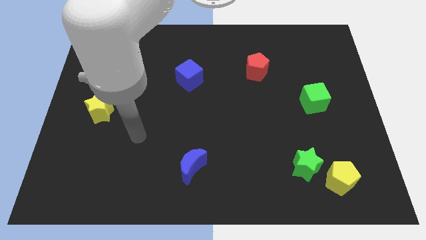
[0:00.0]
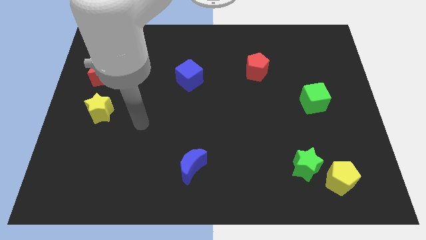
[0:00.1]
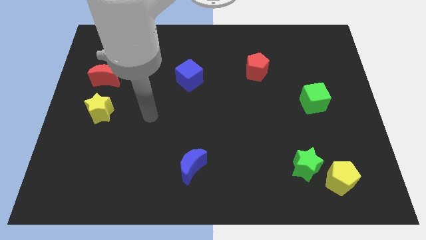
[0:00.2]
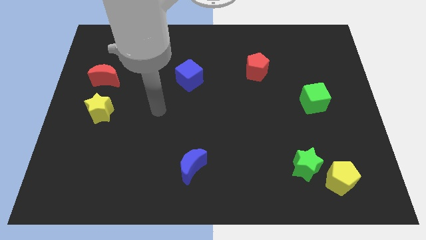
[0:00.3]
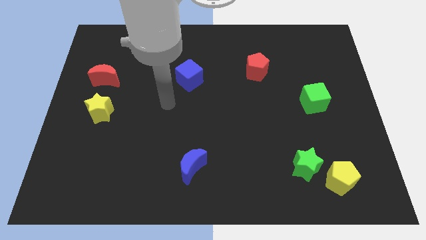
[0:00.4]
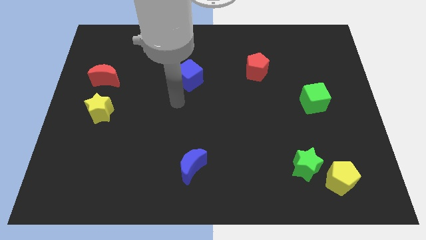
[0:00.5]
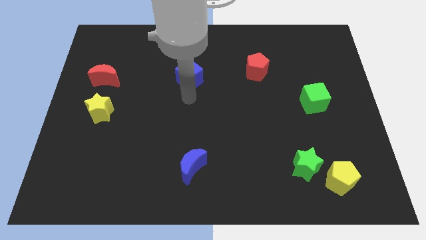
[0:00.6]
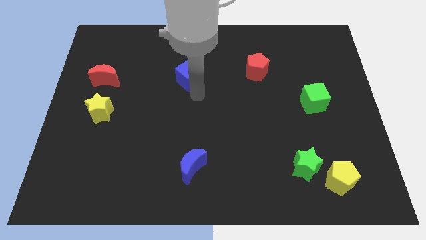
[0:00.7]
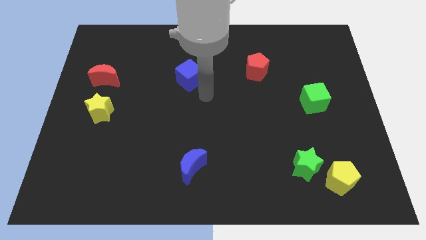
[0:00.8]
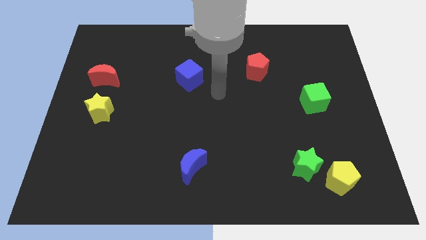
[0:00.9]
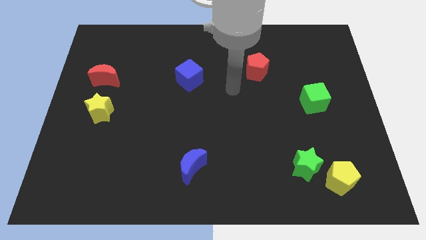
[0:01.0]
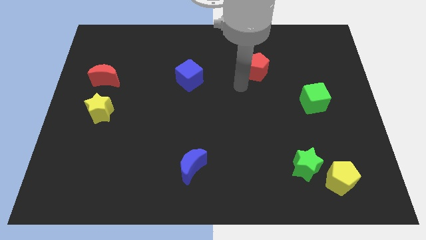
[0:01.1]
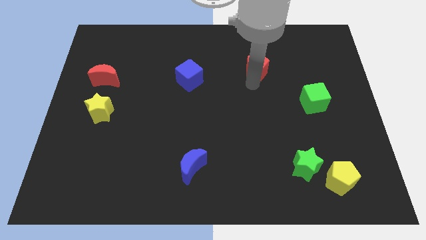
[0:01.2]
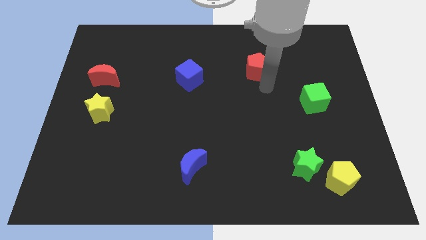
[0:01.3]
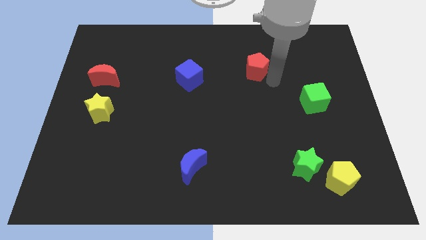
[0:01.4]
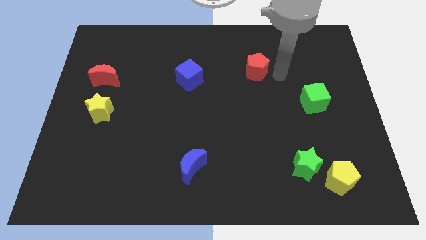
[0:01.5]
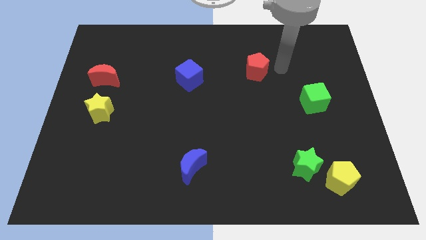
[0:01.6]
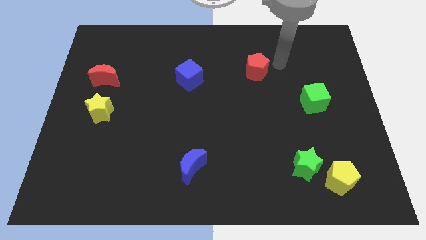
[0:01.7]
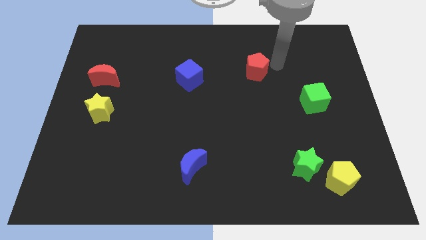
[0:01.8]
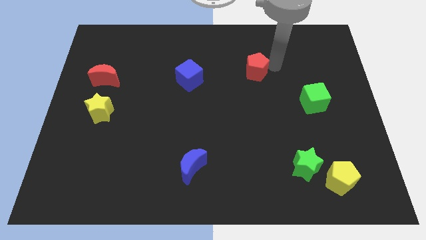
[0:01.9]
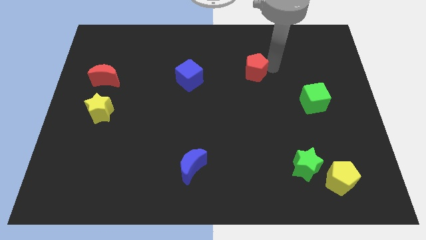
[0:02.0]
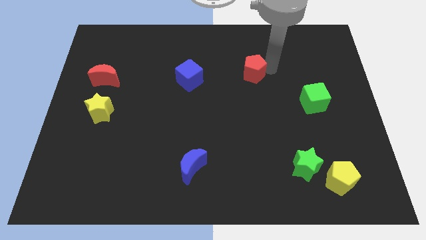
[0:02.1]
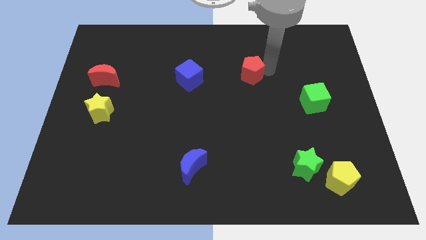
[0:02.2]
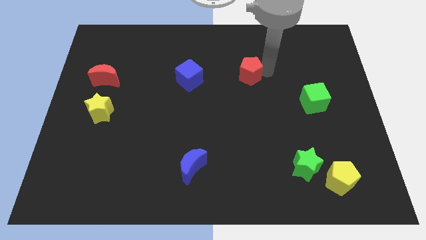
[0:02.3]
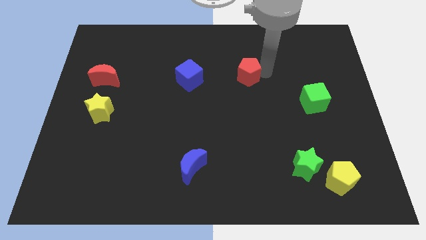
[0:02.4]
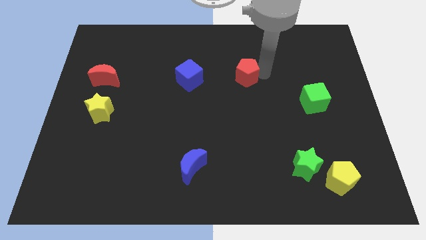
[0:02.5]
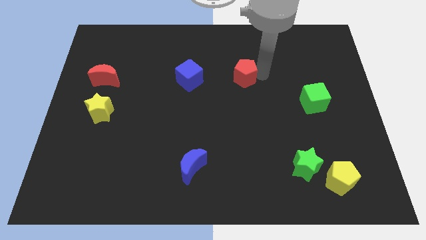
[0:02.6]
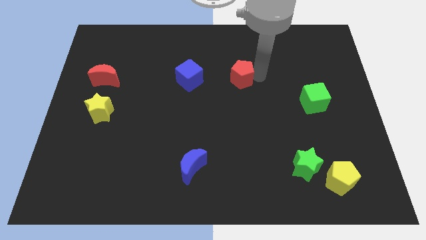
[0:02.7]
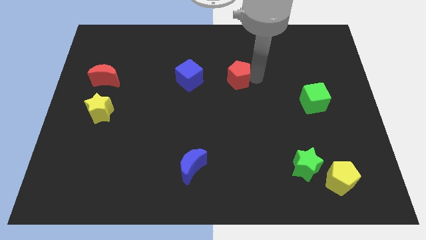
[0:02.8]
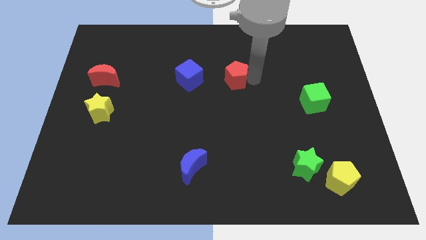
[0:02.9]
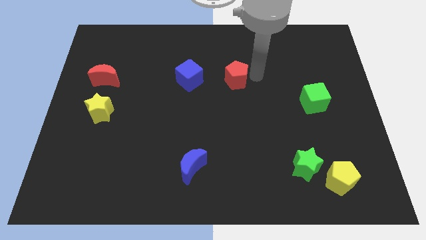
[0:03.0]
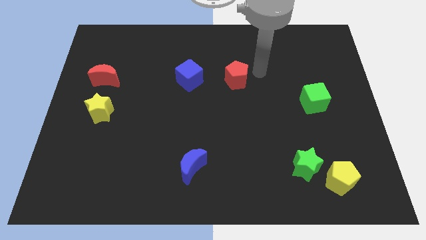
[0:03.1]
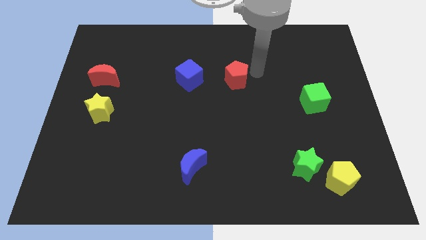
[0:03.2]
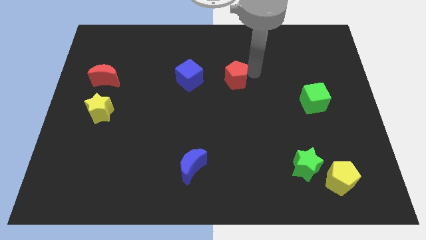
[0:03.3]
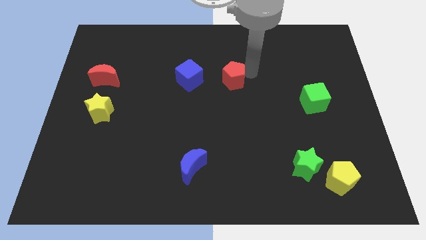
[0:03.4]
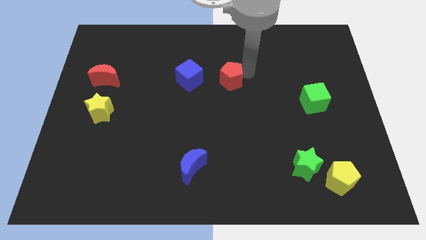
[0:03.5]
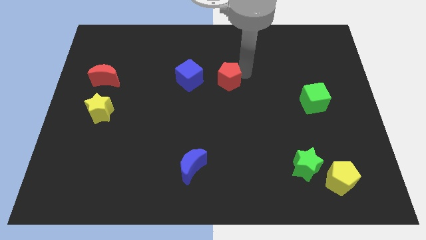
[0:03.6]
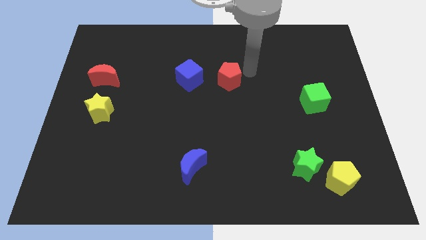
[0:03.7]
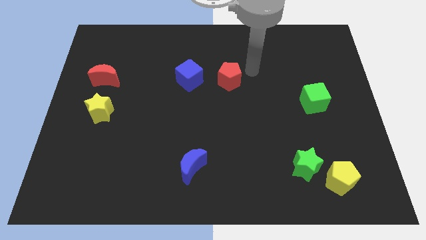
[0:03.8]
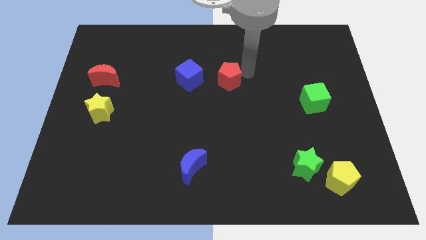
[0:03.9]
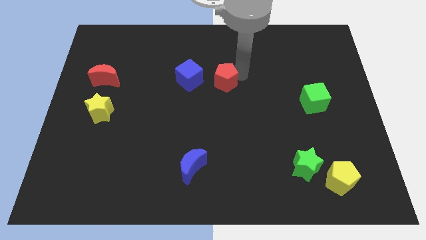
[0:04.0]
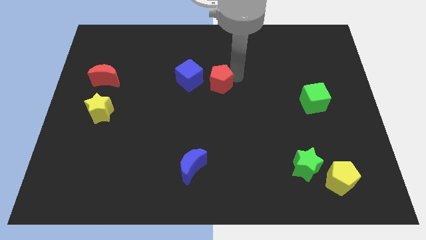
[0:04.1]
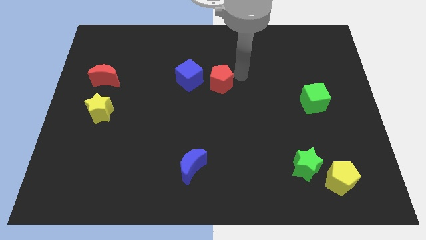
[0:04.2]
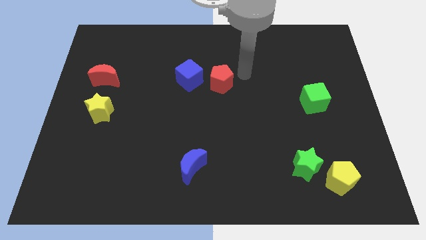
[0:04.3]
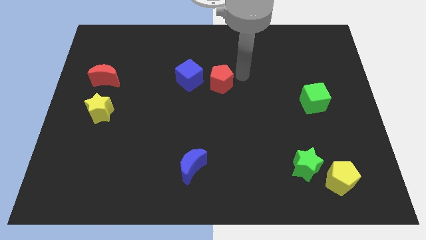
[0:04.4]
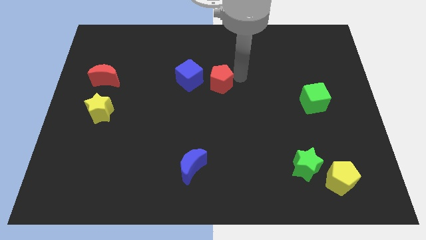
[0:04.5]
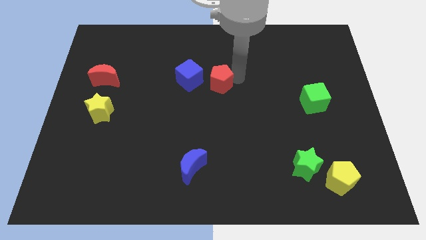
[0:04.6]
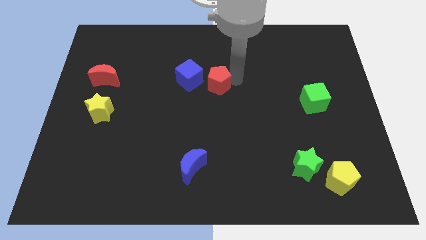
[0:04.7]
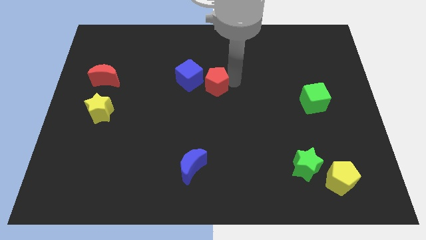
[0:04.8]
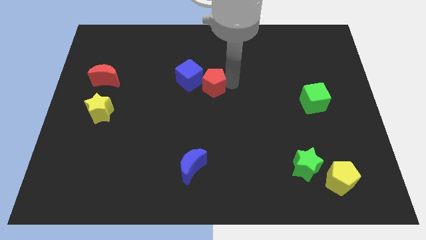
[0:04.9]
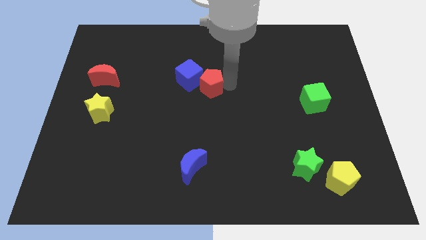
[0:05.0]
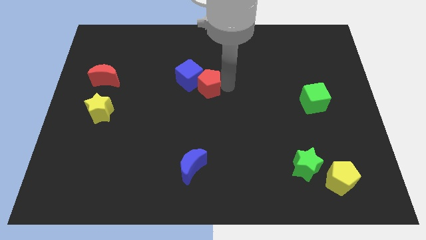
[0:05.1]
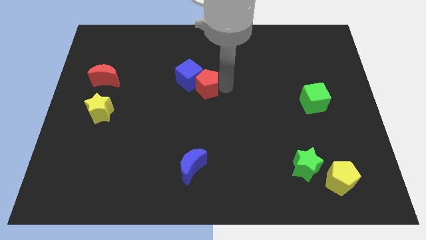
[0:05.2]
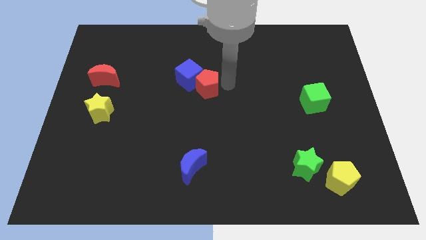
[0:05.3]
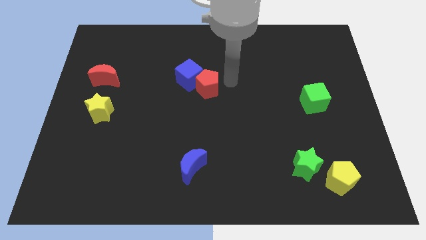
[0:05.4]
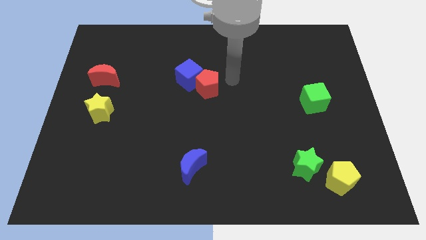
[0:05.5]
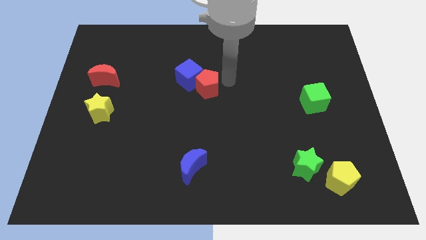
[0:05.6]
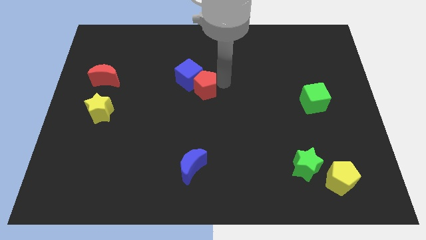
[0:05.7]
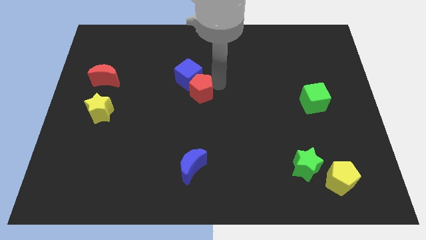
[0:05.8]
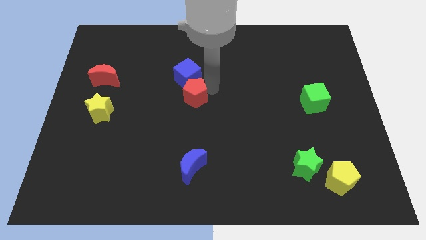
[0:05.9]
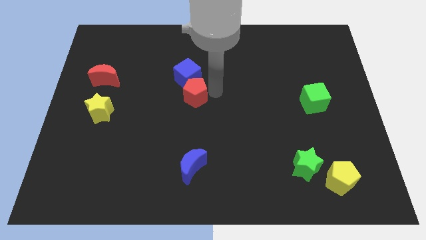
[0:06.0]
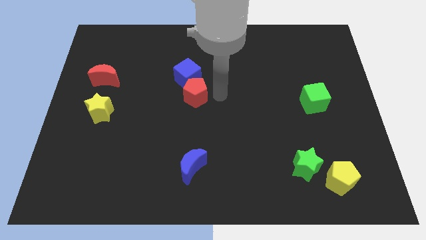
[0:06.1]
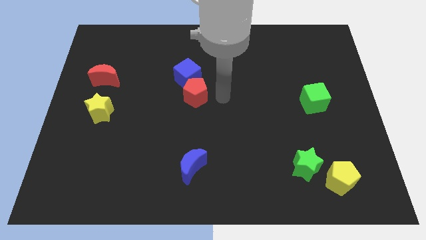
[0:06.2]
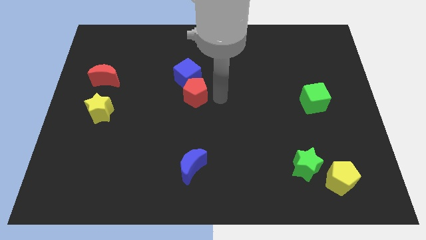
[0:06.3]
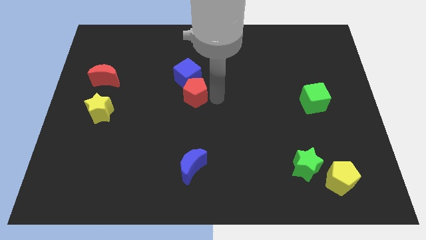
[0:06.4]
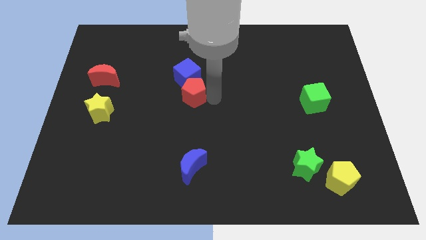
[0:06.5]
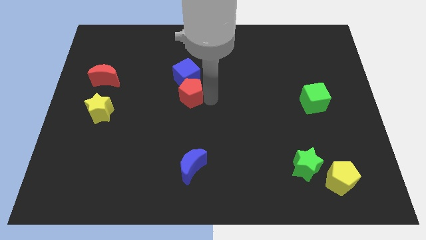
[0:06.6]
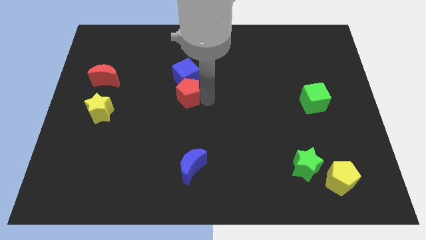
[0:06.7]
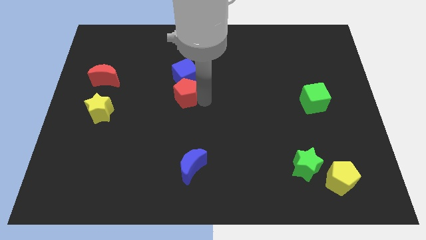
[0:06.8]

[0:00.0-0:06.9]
put the red pentagon diagonally down and to the left of the blue cube

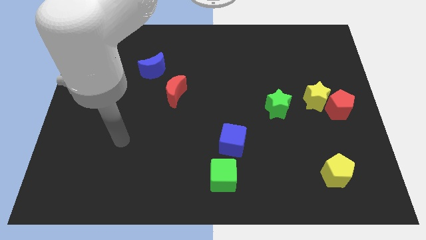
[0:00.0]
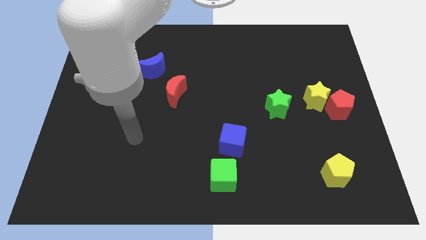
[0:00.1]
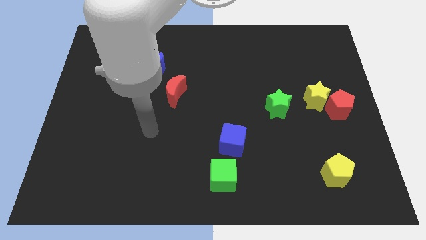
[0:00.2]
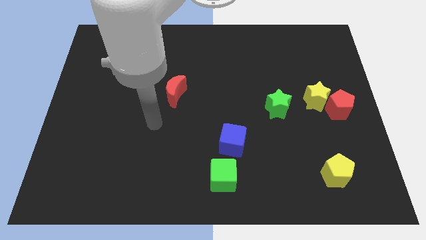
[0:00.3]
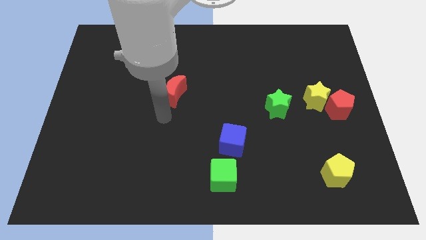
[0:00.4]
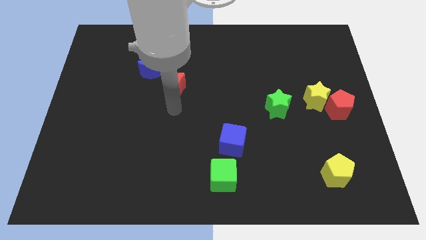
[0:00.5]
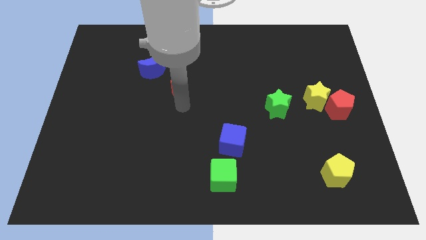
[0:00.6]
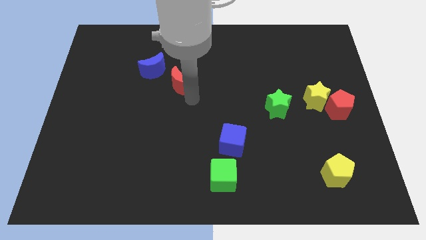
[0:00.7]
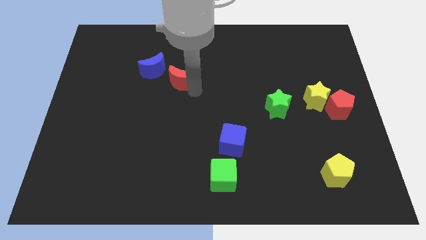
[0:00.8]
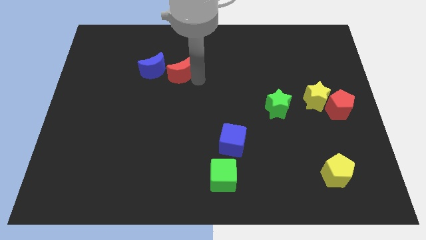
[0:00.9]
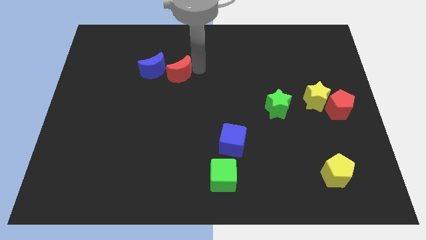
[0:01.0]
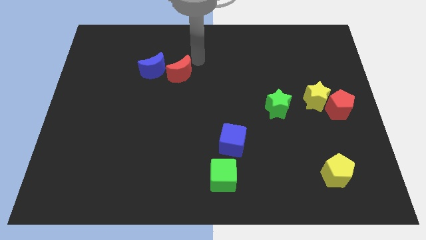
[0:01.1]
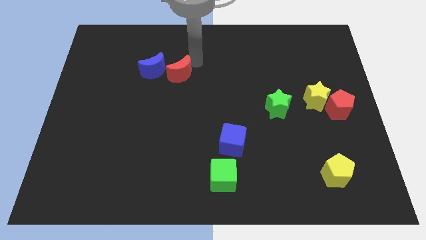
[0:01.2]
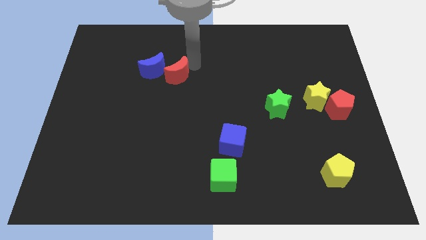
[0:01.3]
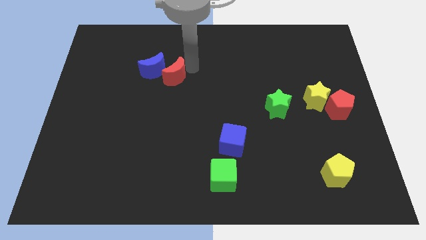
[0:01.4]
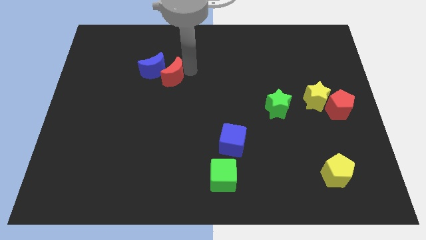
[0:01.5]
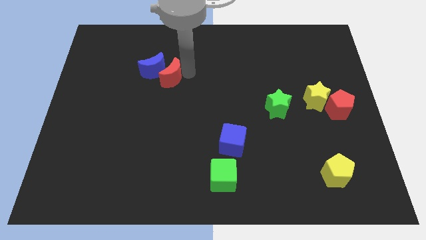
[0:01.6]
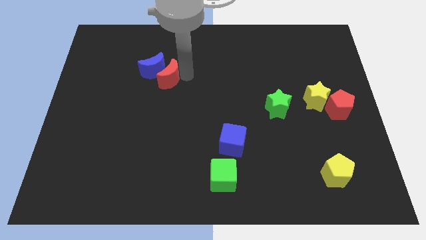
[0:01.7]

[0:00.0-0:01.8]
put the red moon to the bottom side of the blue moon
